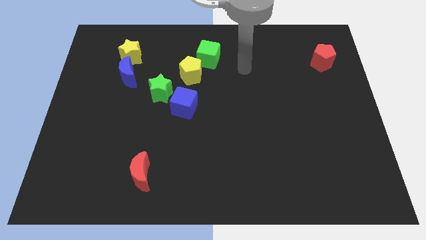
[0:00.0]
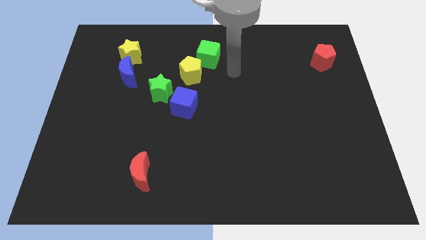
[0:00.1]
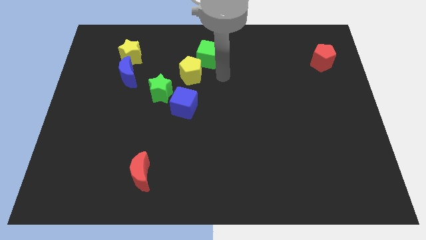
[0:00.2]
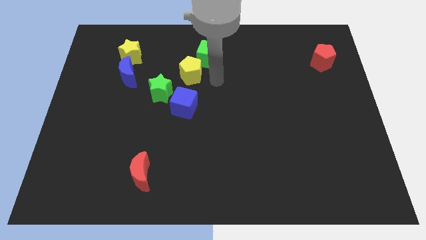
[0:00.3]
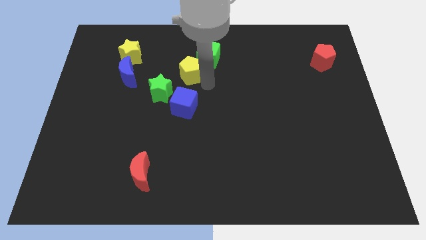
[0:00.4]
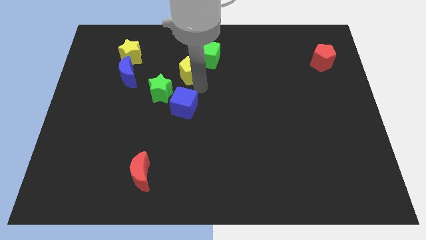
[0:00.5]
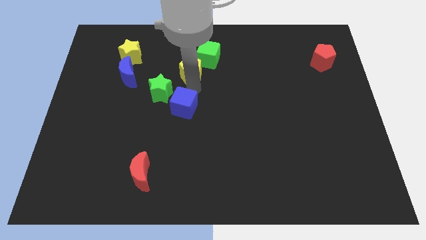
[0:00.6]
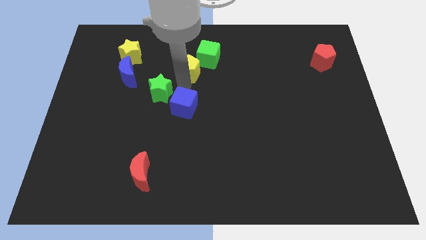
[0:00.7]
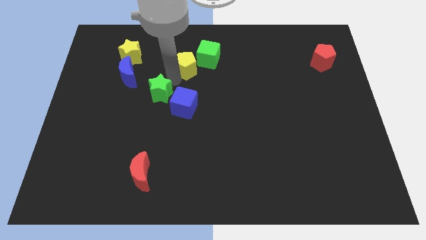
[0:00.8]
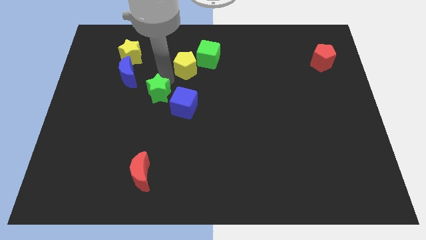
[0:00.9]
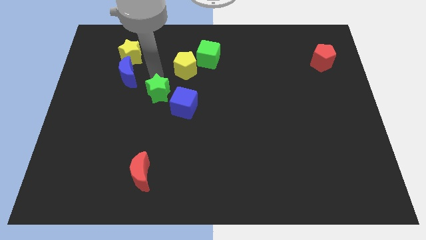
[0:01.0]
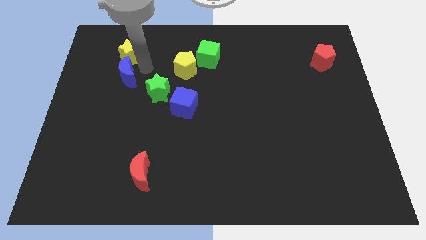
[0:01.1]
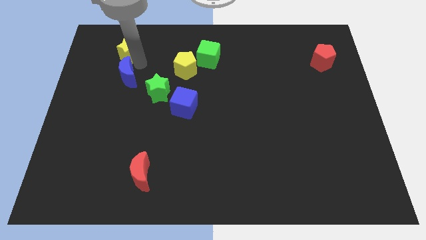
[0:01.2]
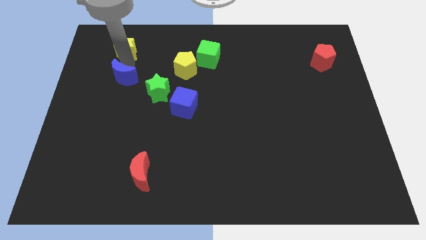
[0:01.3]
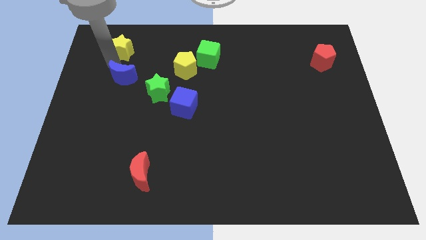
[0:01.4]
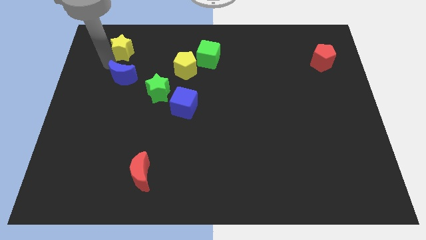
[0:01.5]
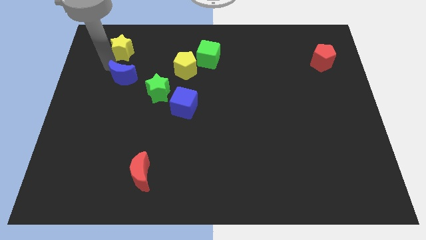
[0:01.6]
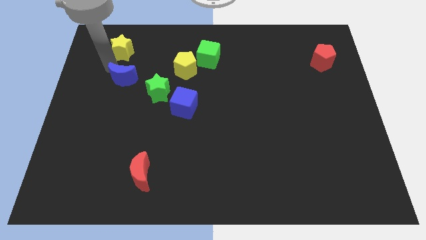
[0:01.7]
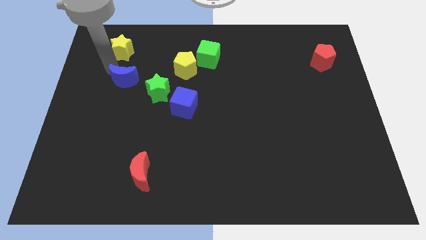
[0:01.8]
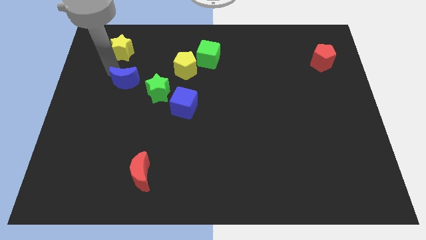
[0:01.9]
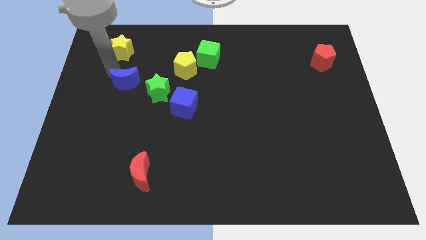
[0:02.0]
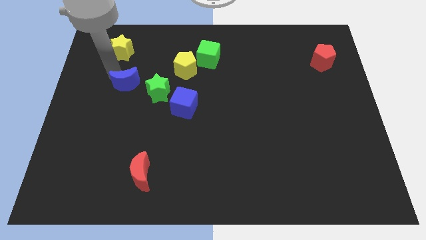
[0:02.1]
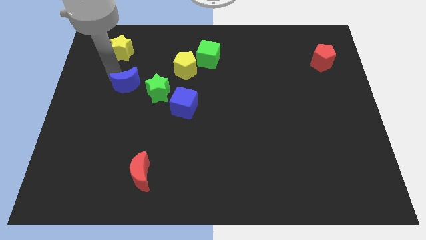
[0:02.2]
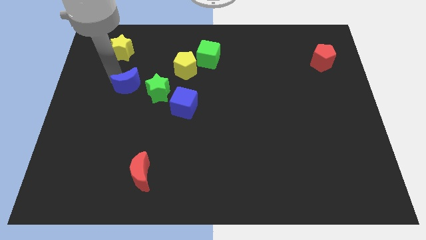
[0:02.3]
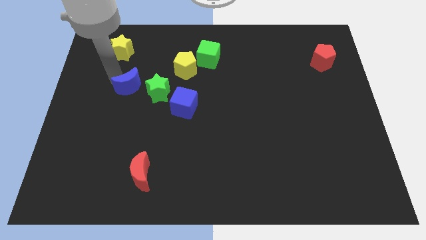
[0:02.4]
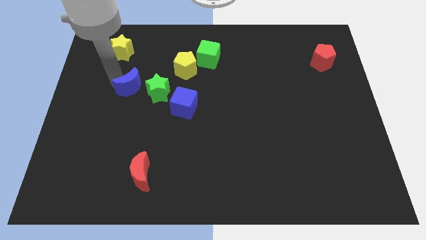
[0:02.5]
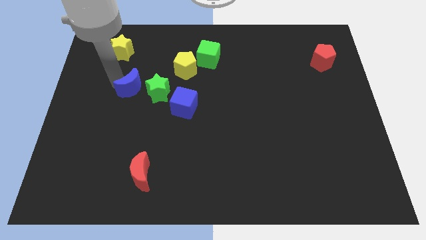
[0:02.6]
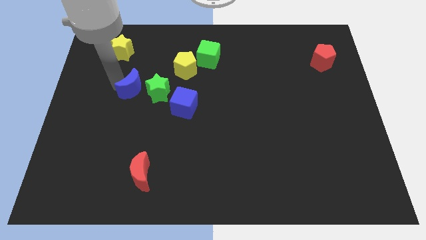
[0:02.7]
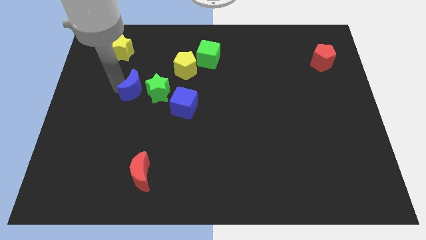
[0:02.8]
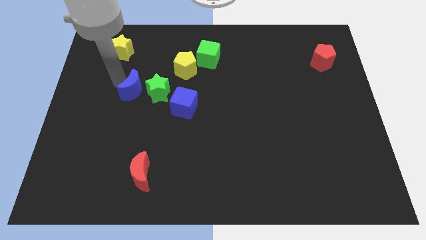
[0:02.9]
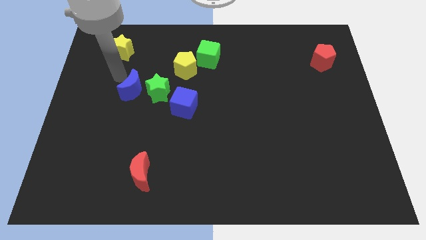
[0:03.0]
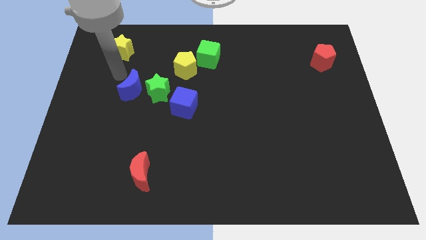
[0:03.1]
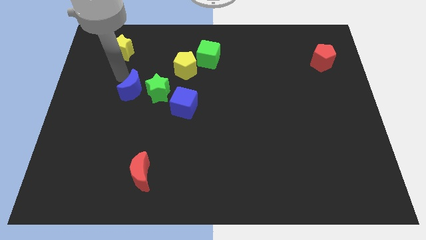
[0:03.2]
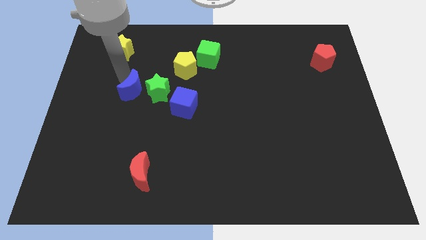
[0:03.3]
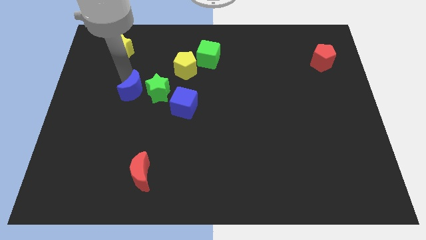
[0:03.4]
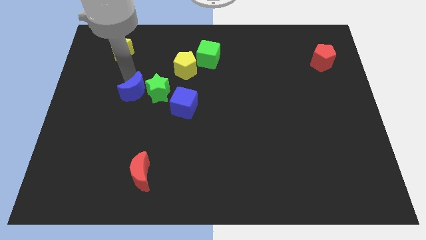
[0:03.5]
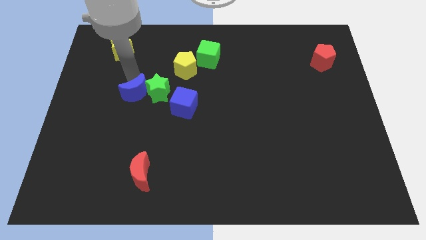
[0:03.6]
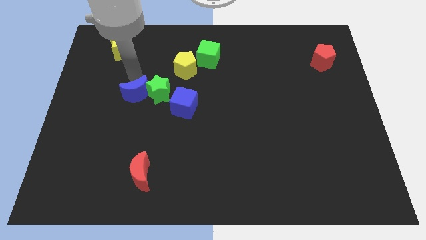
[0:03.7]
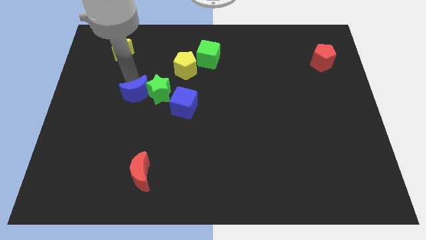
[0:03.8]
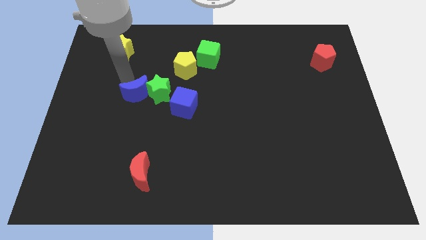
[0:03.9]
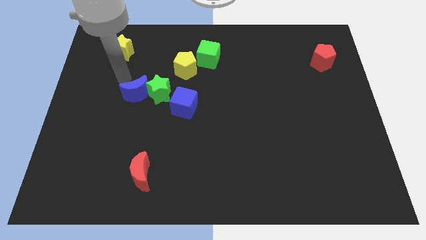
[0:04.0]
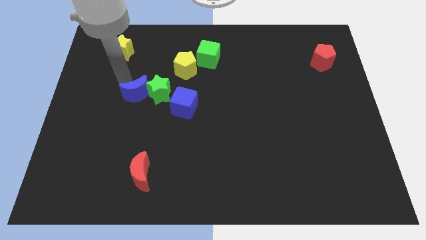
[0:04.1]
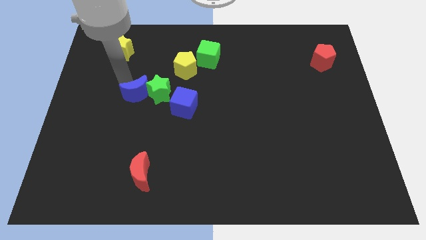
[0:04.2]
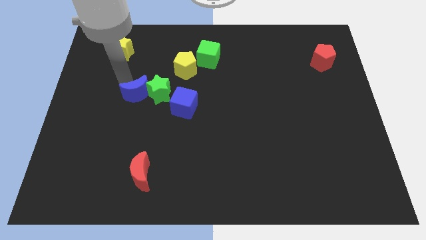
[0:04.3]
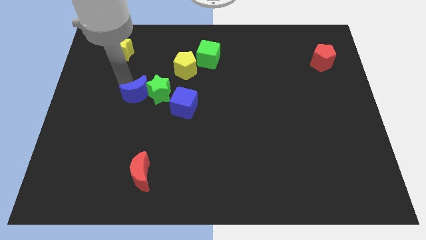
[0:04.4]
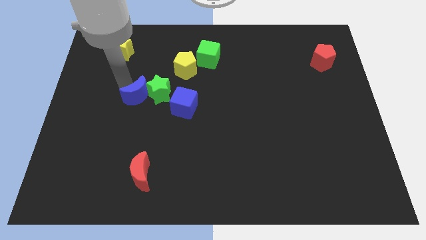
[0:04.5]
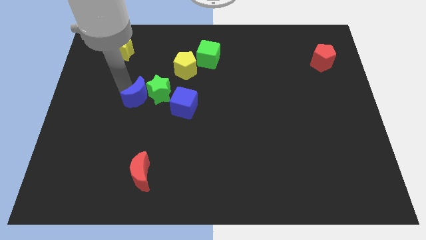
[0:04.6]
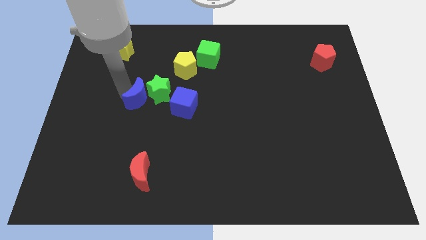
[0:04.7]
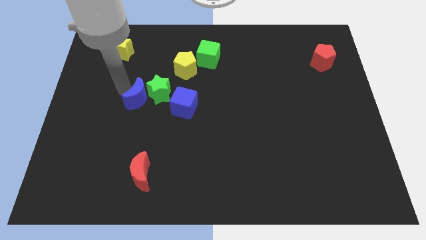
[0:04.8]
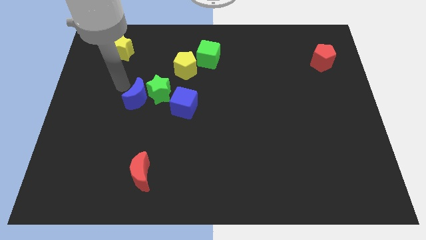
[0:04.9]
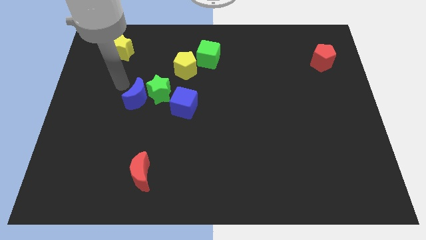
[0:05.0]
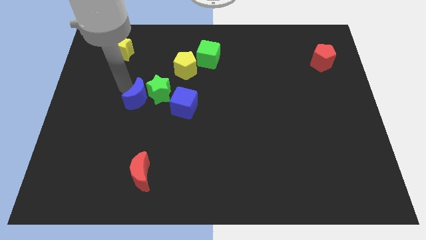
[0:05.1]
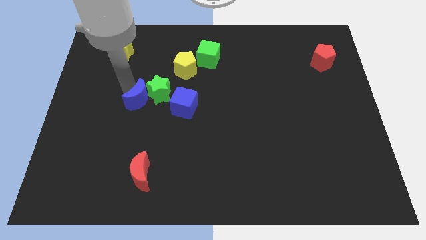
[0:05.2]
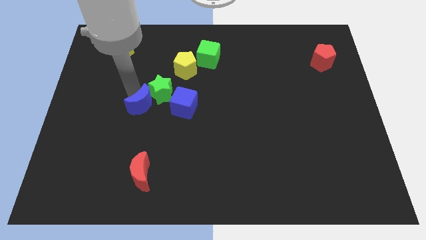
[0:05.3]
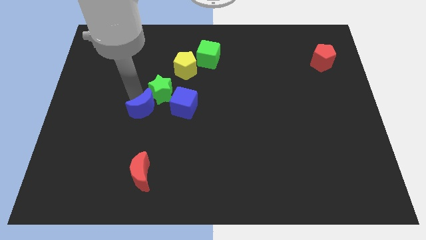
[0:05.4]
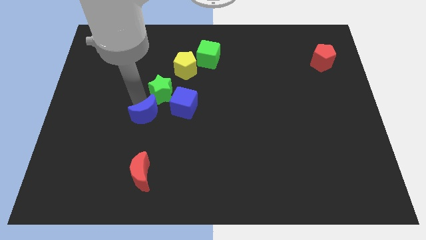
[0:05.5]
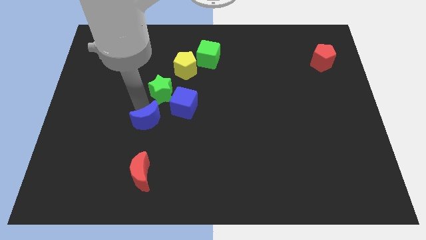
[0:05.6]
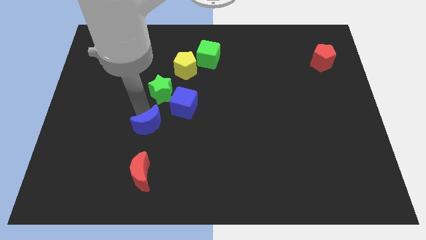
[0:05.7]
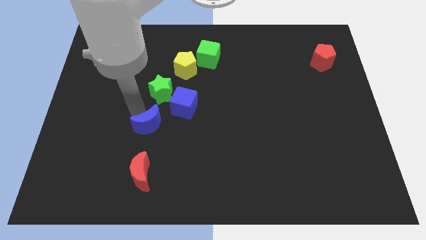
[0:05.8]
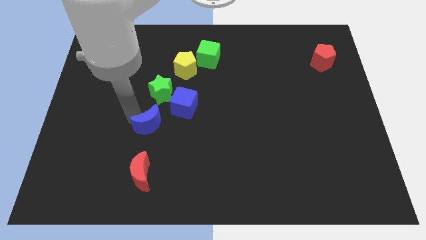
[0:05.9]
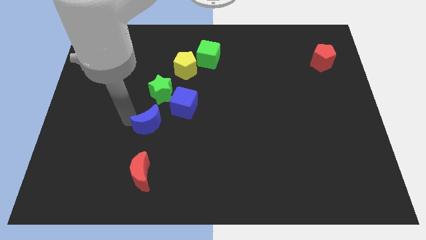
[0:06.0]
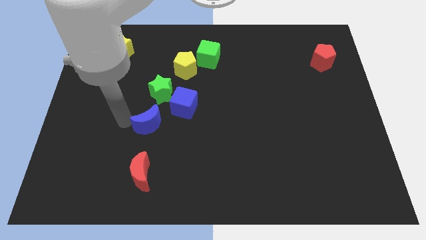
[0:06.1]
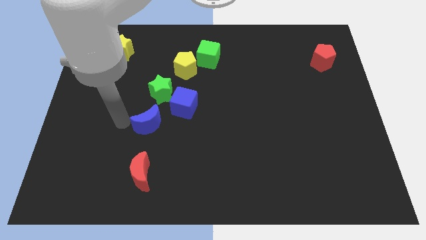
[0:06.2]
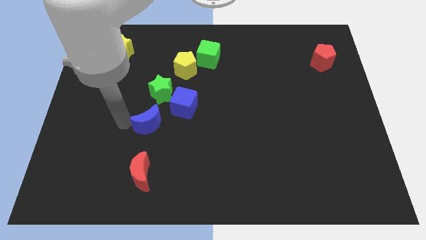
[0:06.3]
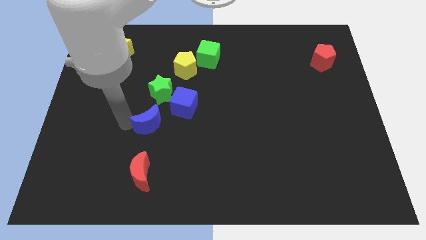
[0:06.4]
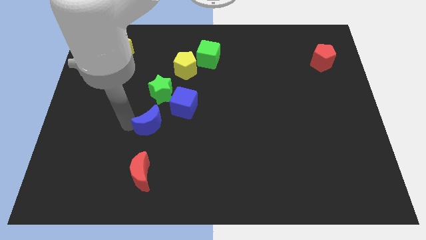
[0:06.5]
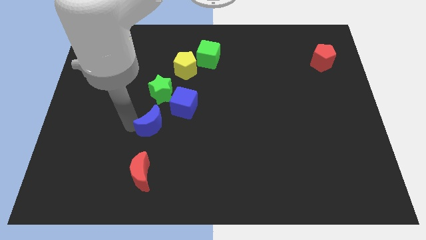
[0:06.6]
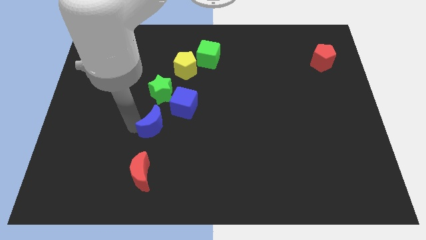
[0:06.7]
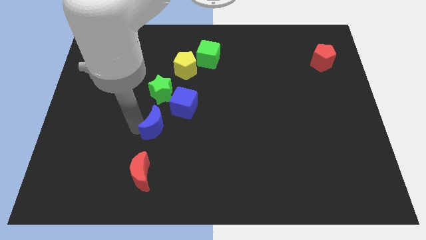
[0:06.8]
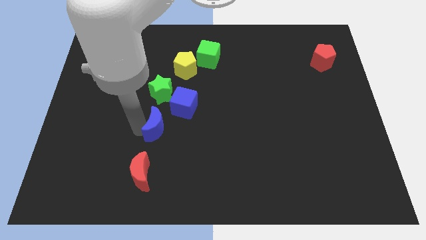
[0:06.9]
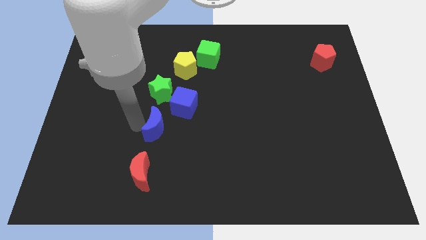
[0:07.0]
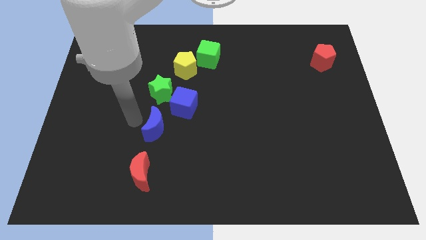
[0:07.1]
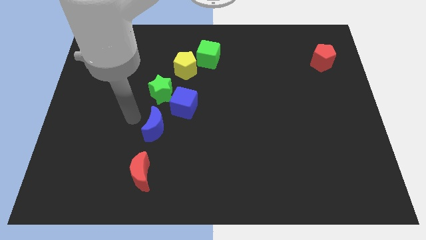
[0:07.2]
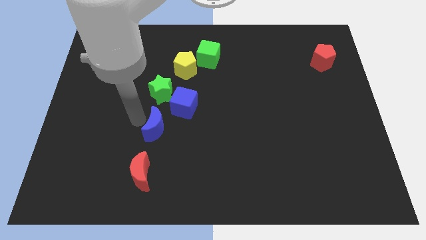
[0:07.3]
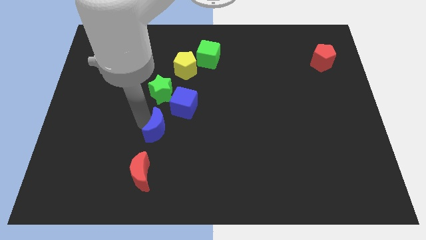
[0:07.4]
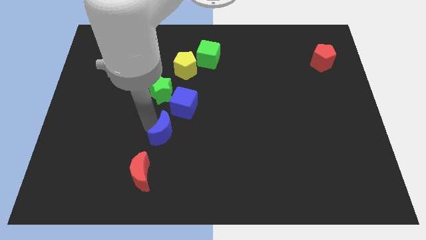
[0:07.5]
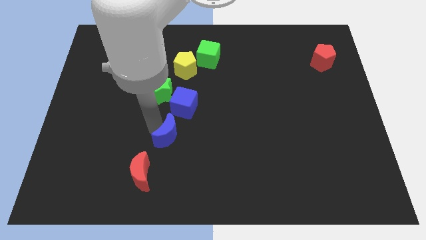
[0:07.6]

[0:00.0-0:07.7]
move the blue moon downwards and then right

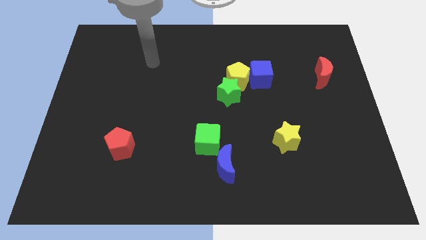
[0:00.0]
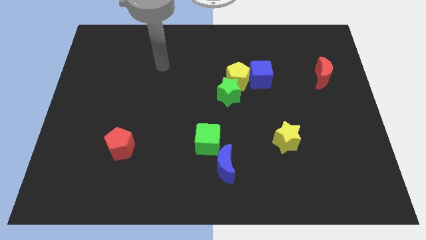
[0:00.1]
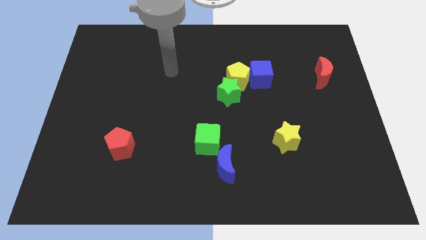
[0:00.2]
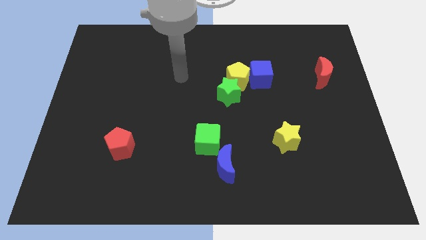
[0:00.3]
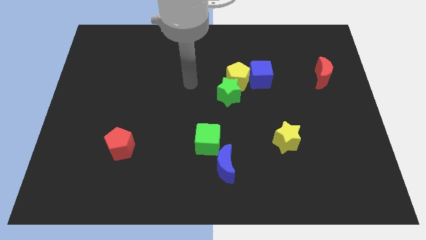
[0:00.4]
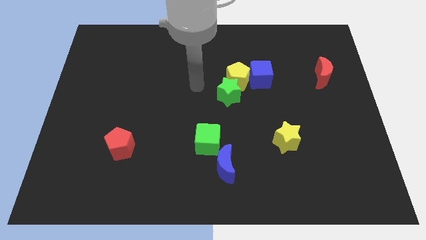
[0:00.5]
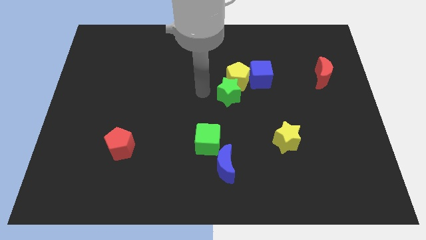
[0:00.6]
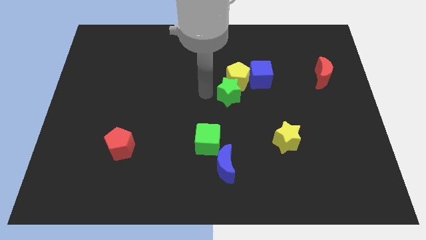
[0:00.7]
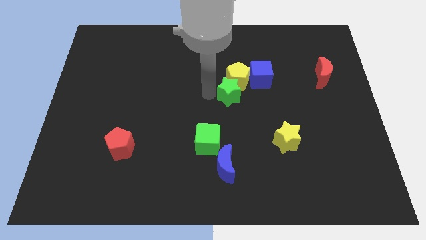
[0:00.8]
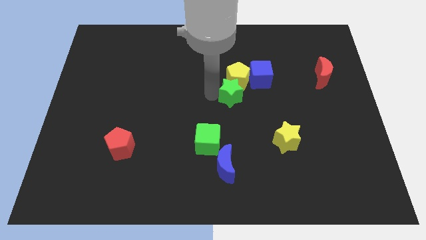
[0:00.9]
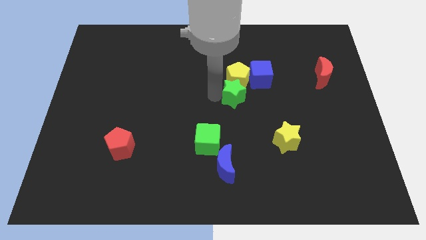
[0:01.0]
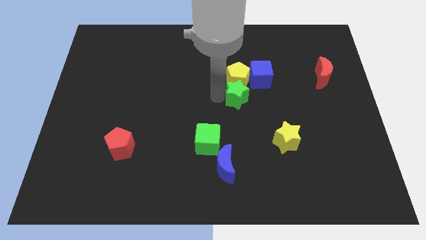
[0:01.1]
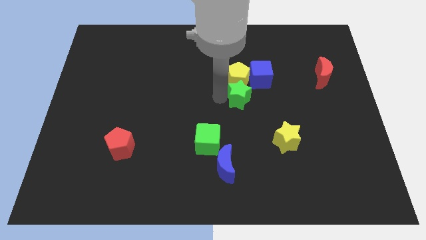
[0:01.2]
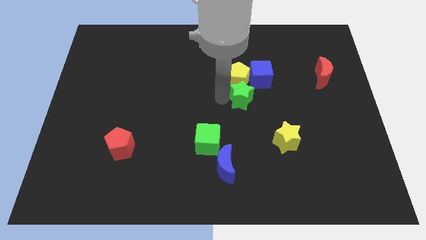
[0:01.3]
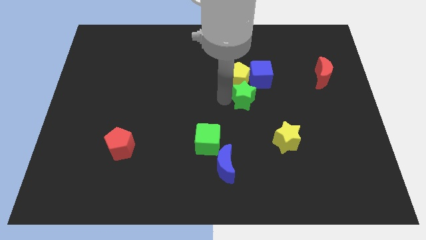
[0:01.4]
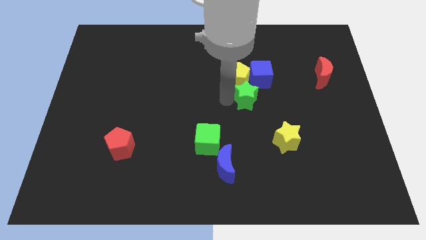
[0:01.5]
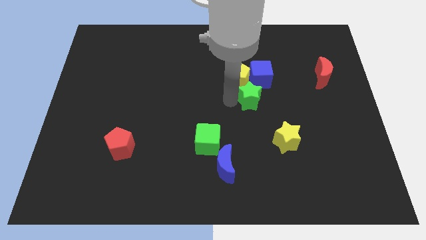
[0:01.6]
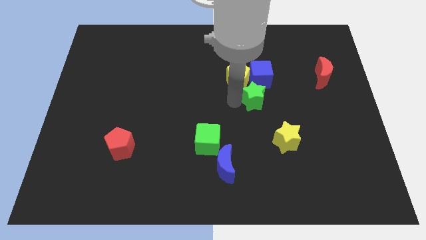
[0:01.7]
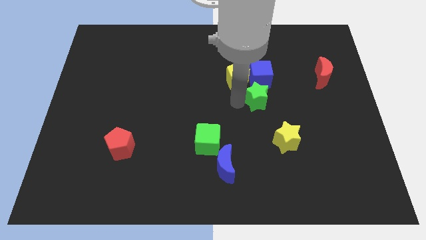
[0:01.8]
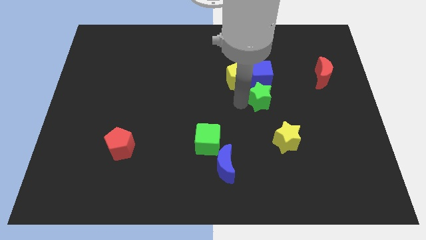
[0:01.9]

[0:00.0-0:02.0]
slightly move the green star right
